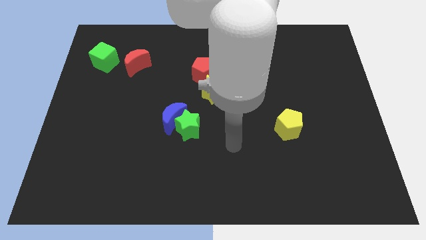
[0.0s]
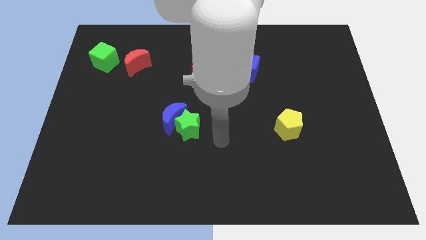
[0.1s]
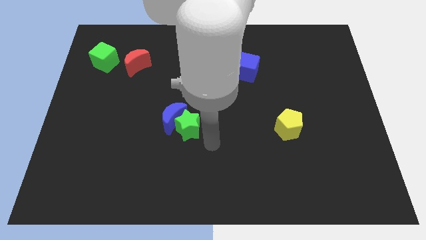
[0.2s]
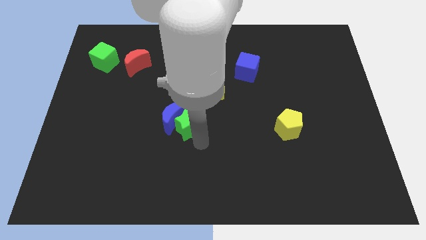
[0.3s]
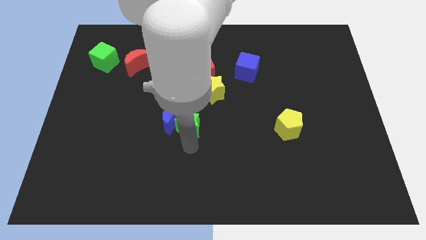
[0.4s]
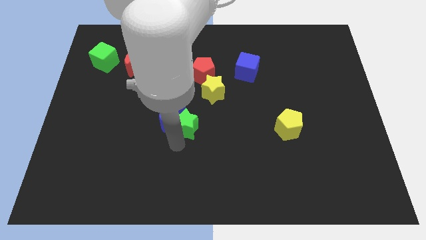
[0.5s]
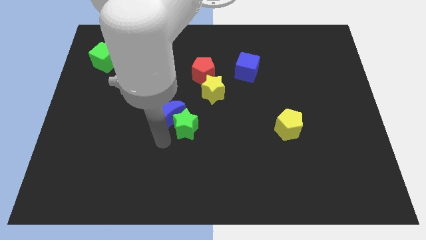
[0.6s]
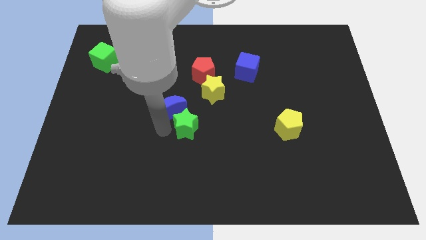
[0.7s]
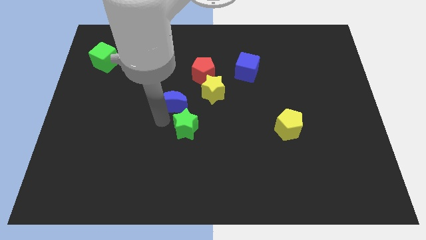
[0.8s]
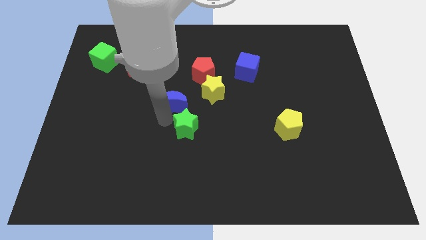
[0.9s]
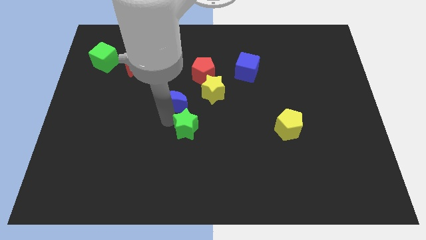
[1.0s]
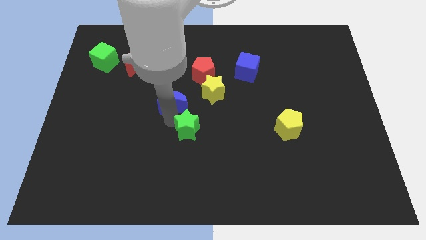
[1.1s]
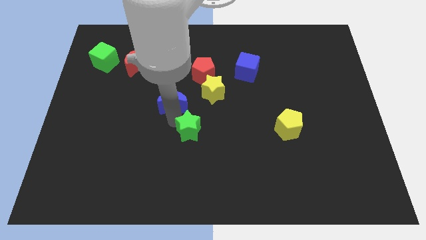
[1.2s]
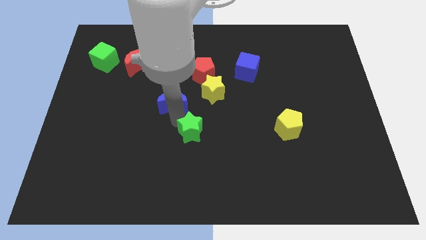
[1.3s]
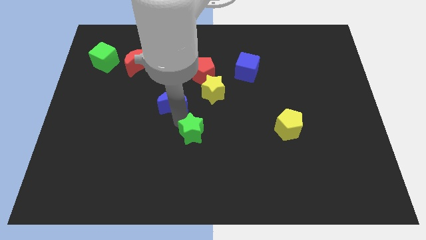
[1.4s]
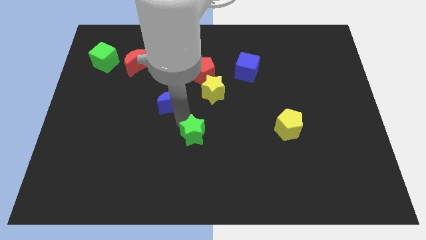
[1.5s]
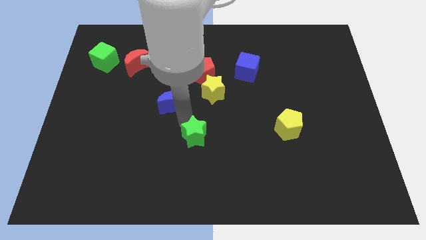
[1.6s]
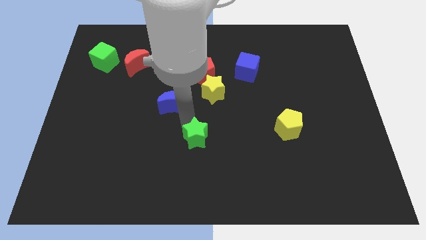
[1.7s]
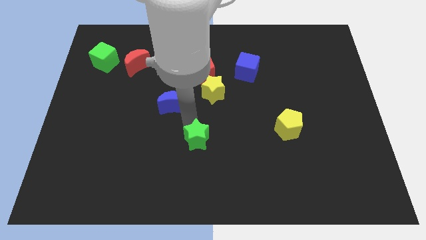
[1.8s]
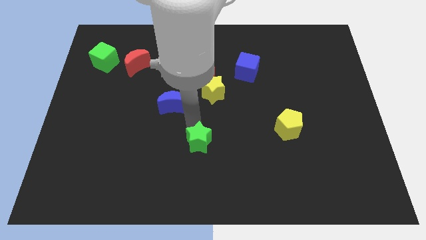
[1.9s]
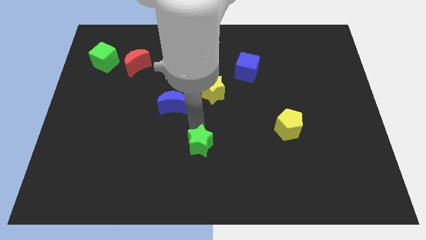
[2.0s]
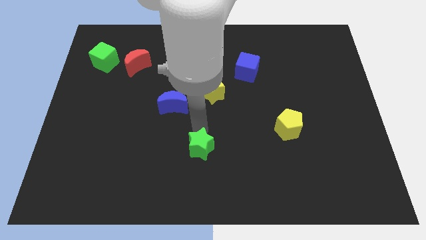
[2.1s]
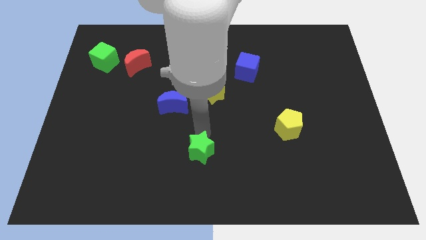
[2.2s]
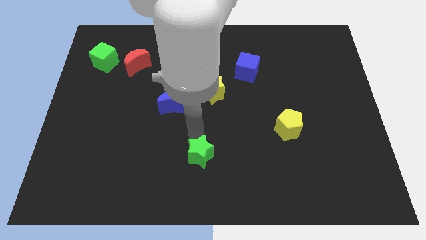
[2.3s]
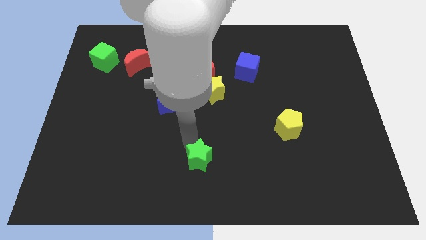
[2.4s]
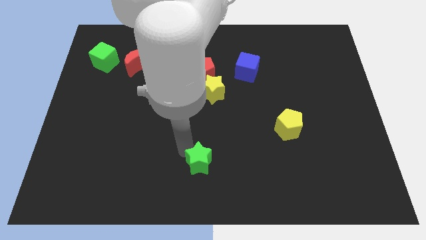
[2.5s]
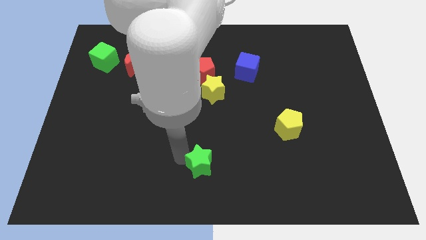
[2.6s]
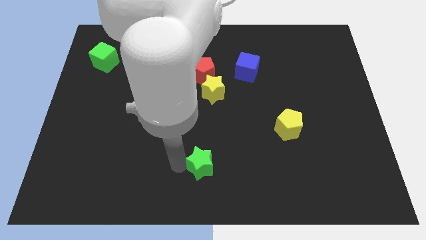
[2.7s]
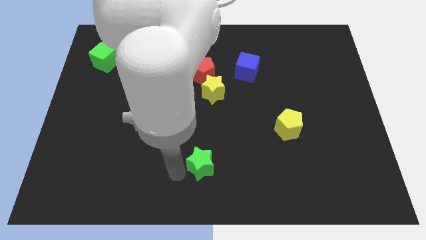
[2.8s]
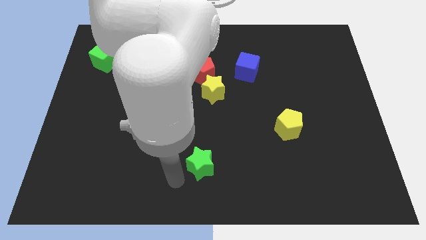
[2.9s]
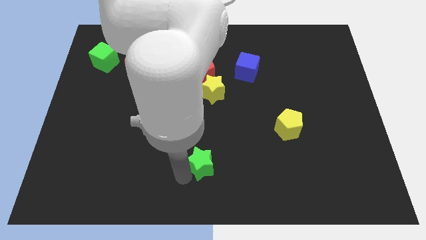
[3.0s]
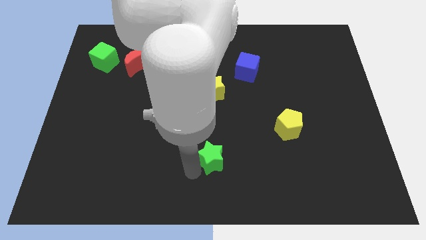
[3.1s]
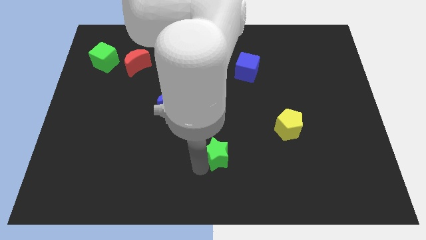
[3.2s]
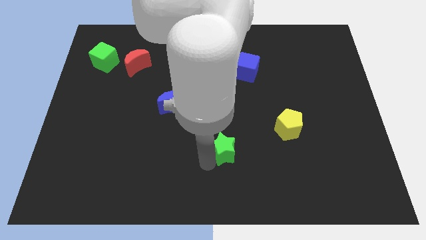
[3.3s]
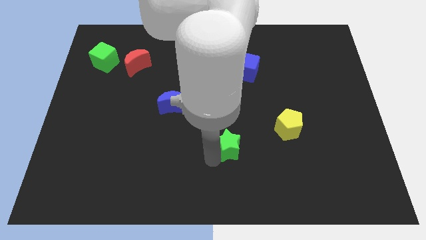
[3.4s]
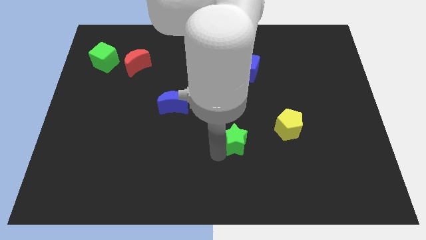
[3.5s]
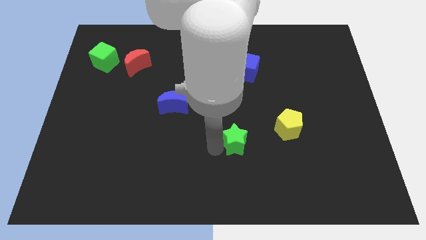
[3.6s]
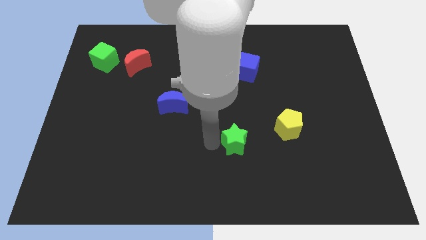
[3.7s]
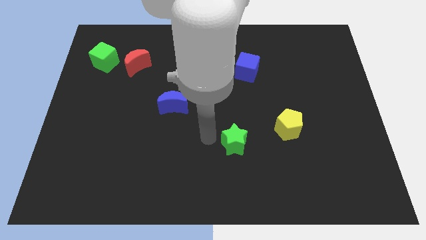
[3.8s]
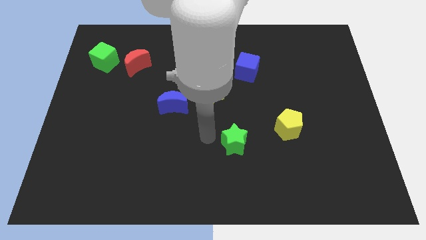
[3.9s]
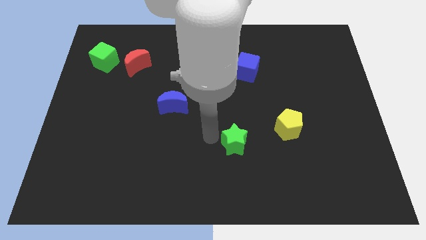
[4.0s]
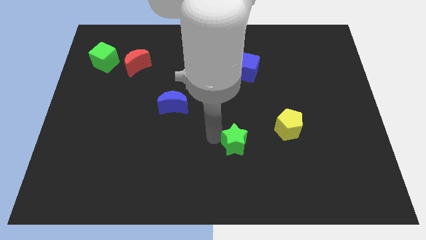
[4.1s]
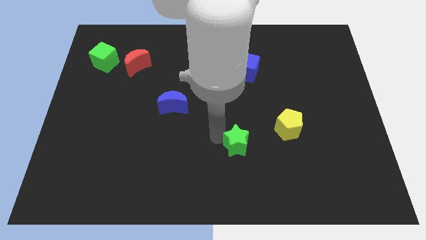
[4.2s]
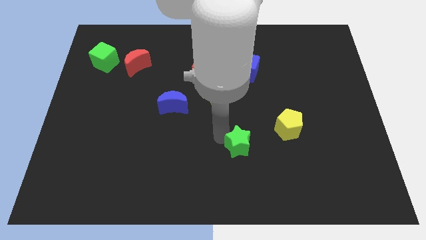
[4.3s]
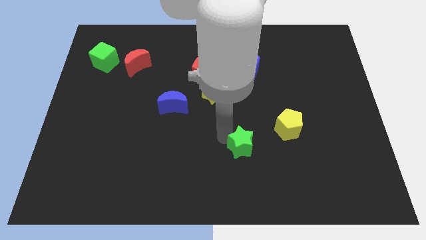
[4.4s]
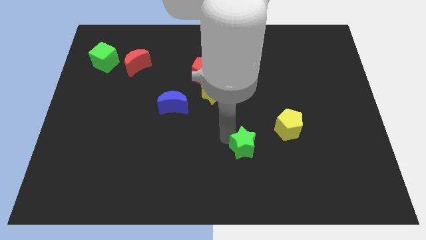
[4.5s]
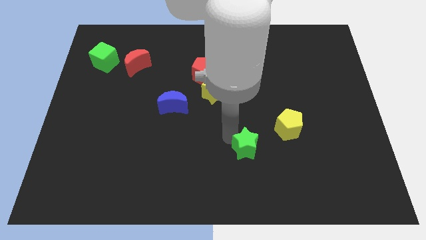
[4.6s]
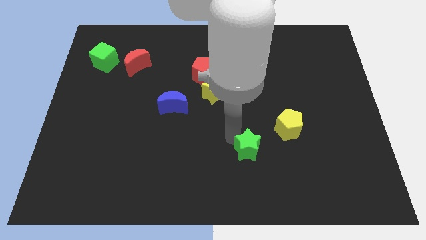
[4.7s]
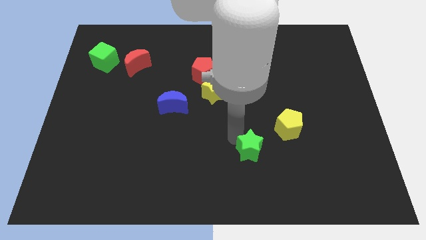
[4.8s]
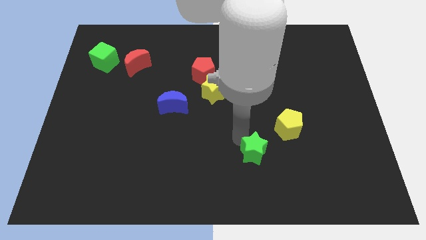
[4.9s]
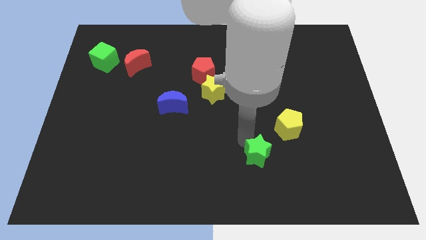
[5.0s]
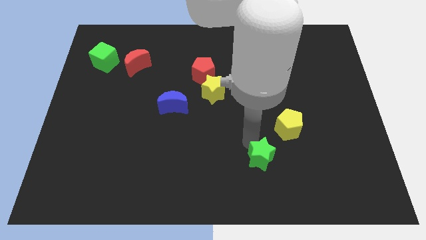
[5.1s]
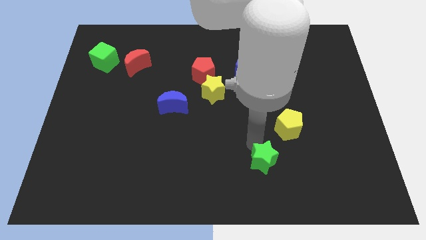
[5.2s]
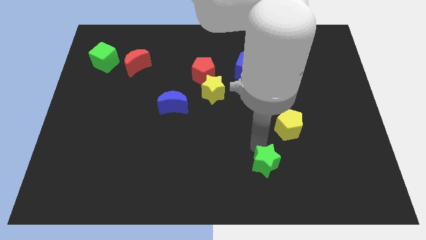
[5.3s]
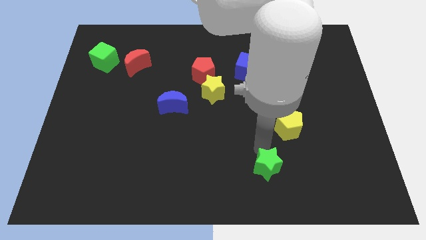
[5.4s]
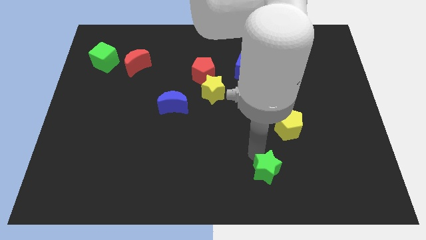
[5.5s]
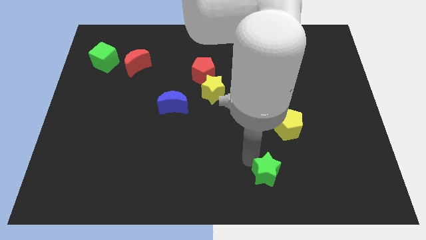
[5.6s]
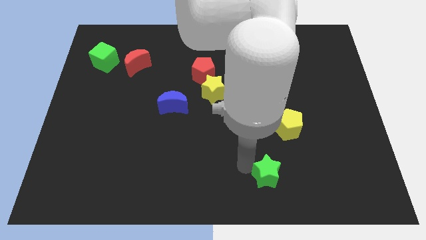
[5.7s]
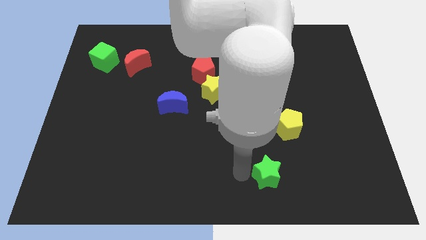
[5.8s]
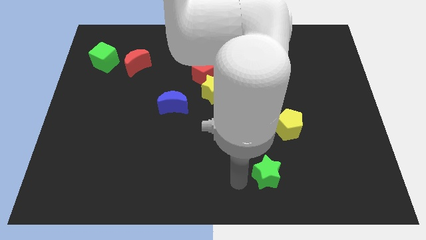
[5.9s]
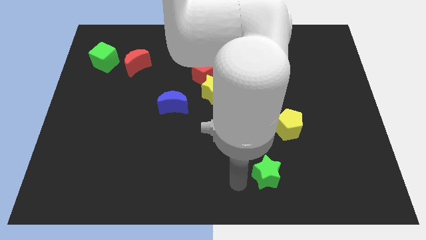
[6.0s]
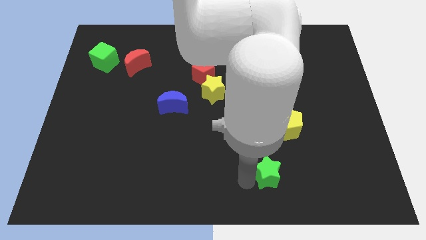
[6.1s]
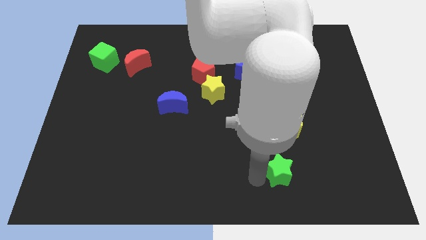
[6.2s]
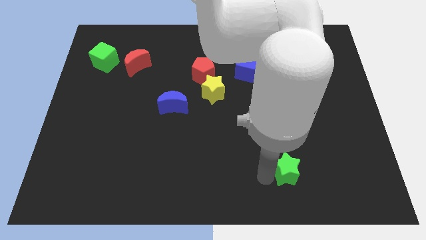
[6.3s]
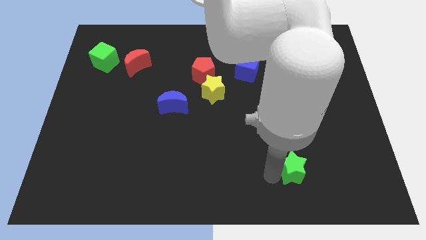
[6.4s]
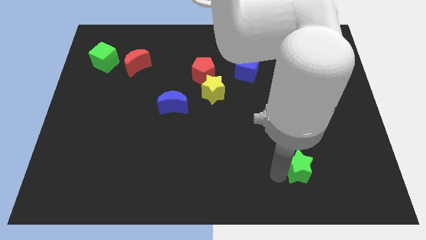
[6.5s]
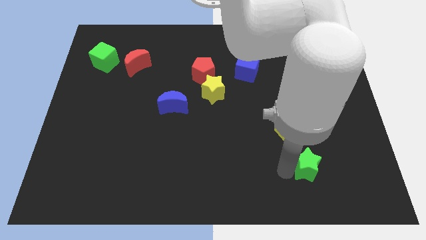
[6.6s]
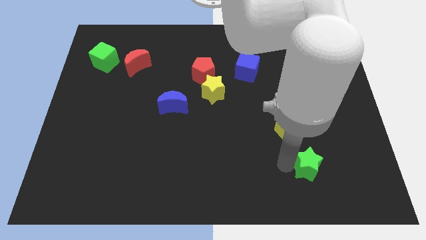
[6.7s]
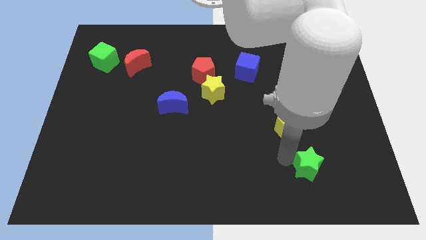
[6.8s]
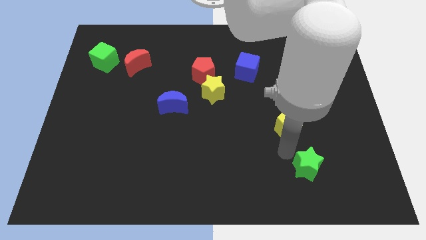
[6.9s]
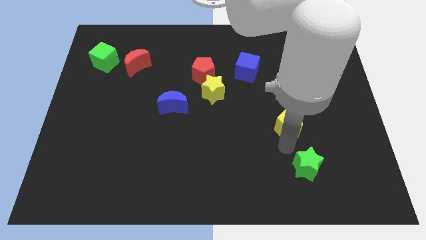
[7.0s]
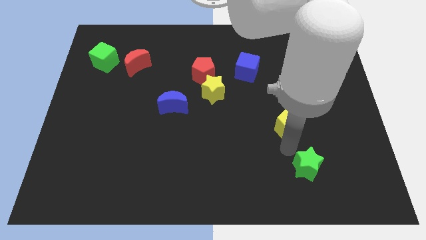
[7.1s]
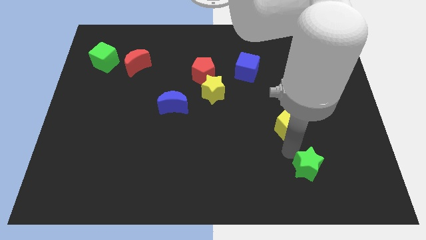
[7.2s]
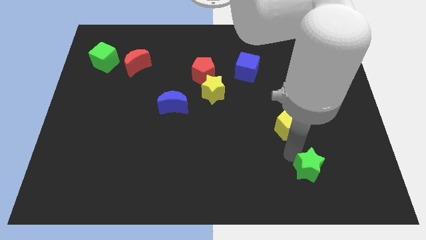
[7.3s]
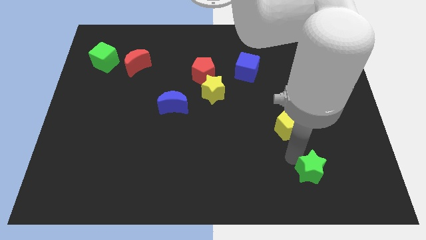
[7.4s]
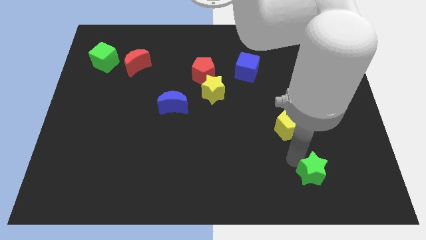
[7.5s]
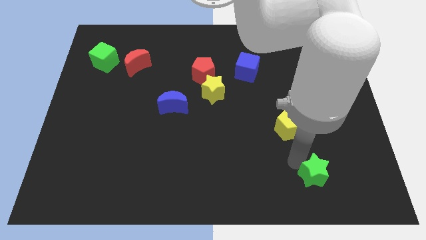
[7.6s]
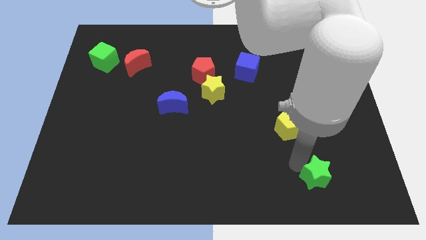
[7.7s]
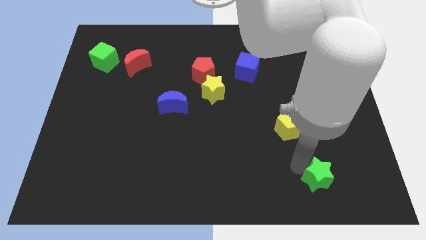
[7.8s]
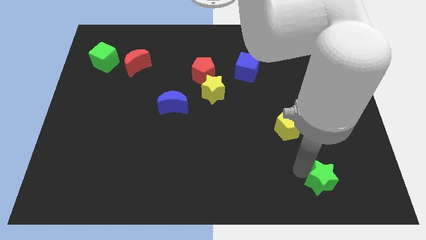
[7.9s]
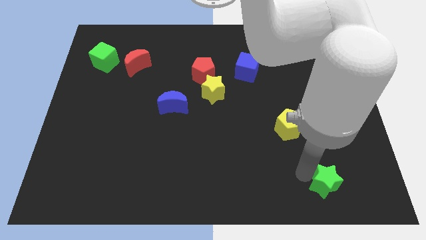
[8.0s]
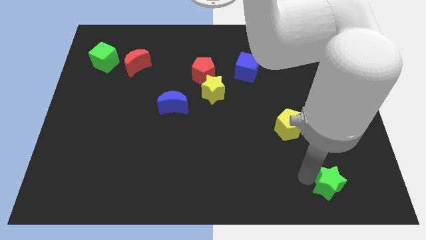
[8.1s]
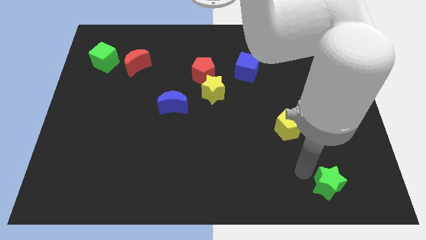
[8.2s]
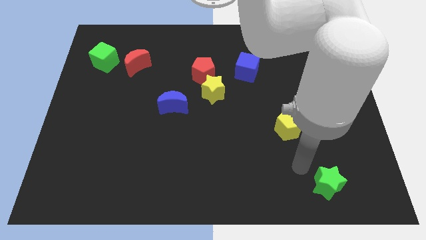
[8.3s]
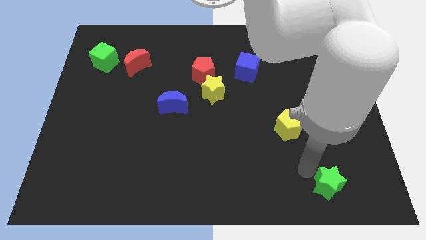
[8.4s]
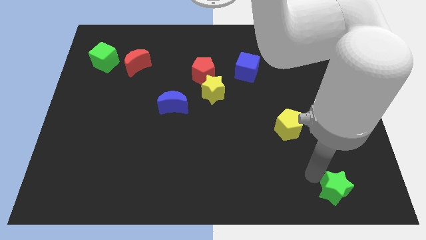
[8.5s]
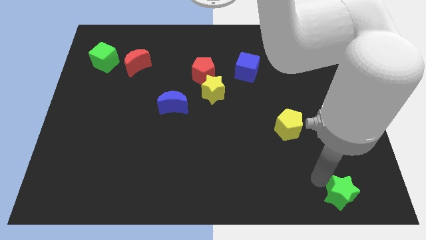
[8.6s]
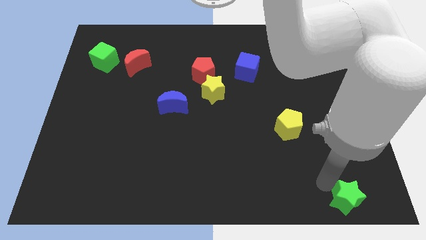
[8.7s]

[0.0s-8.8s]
put the green star to the bottom right corner
